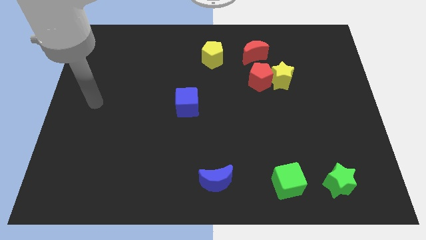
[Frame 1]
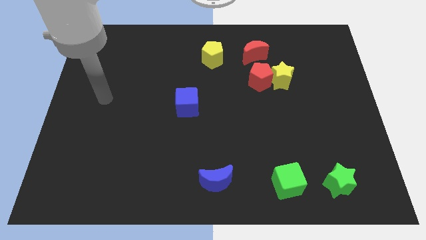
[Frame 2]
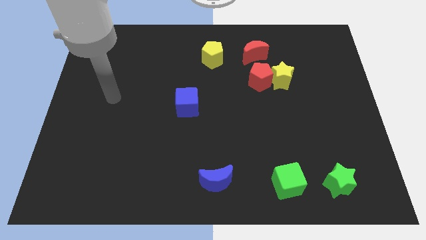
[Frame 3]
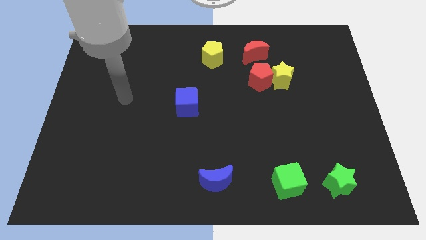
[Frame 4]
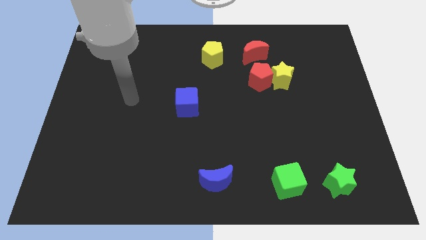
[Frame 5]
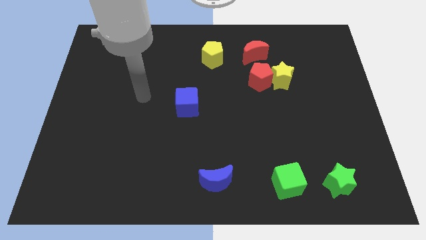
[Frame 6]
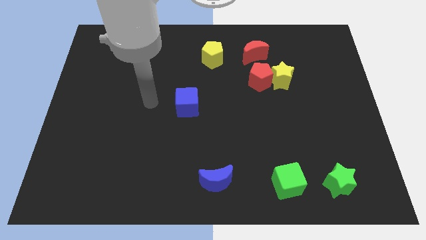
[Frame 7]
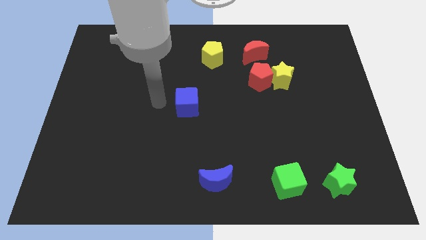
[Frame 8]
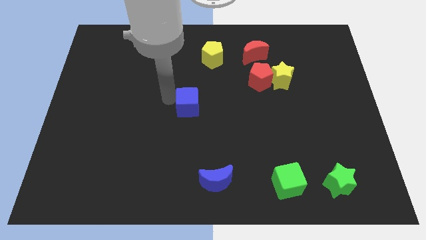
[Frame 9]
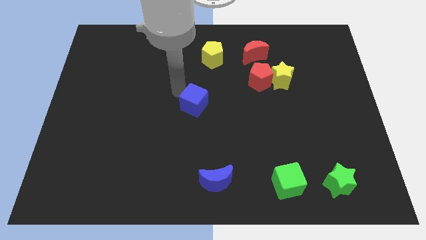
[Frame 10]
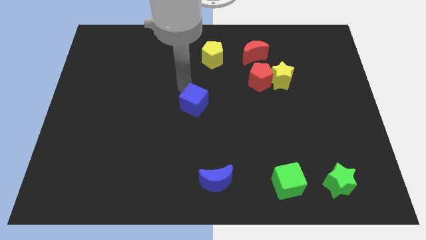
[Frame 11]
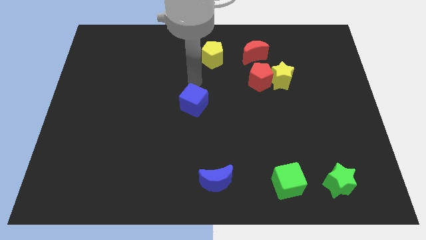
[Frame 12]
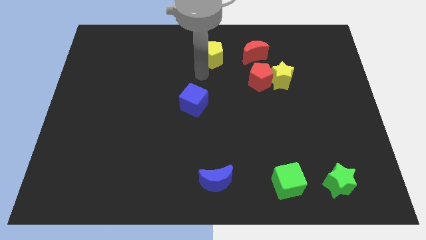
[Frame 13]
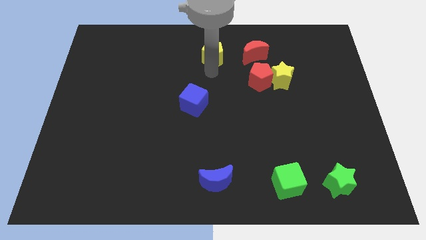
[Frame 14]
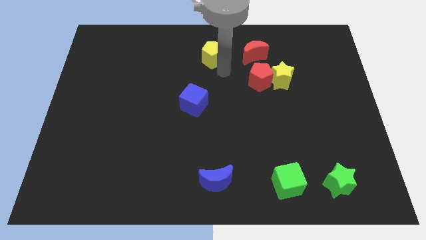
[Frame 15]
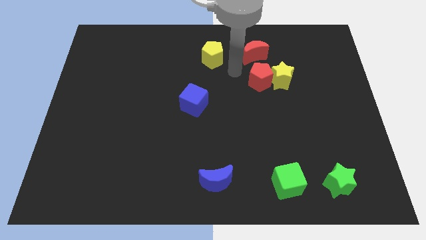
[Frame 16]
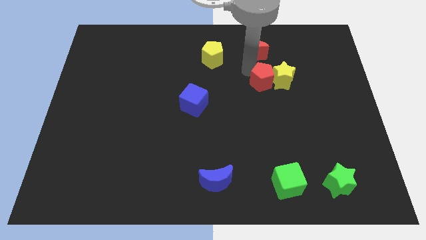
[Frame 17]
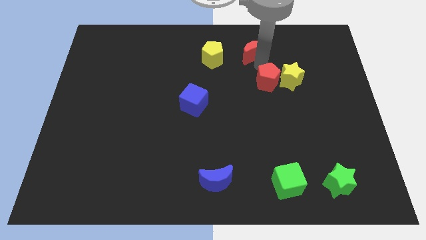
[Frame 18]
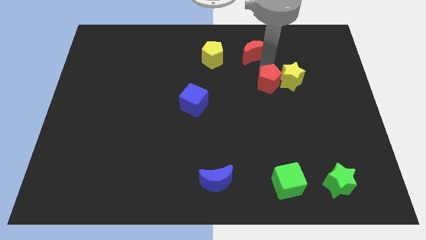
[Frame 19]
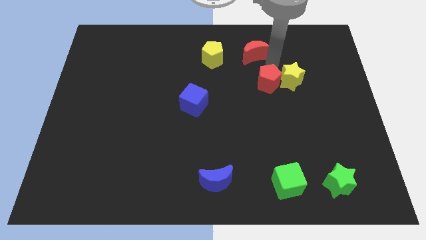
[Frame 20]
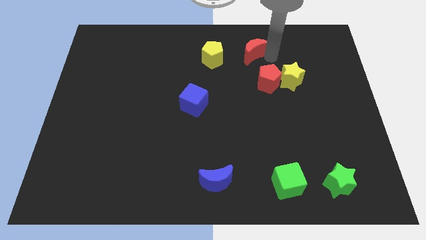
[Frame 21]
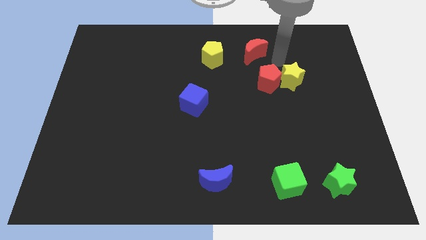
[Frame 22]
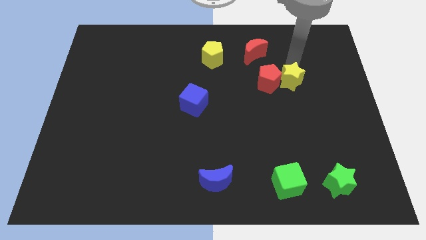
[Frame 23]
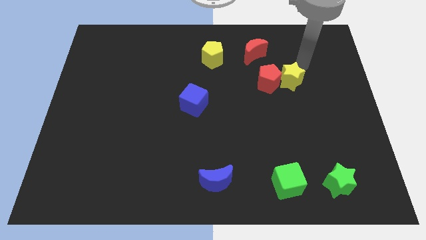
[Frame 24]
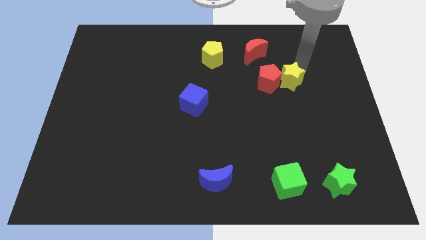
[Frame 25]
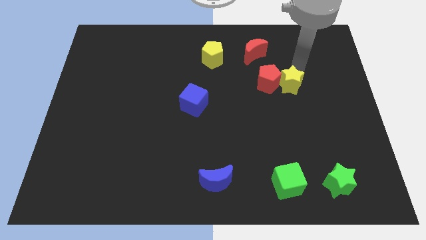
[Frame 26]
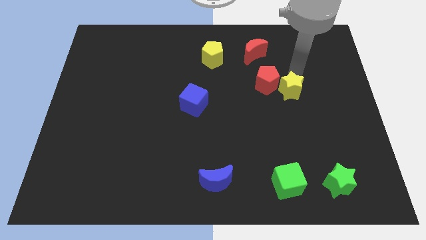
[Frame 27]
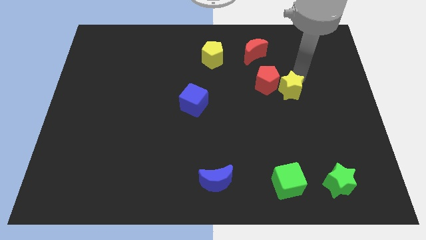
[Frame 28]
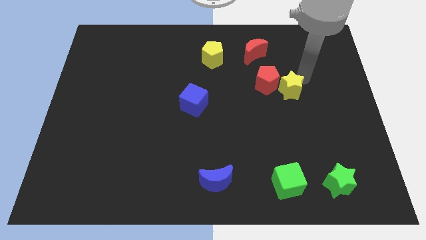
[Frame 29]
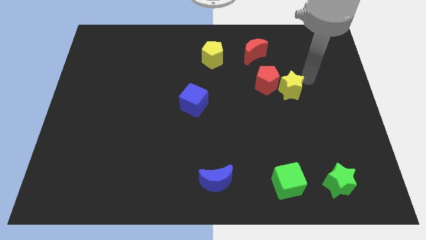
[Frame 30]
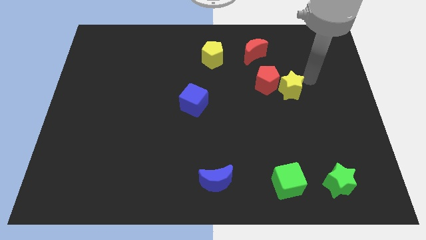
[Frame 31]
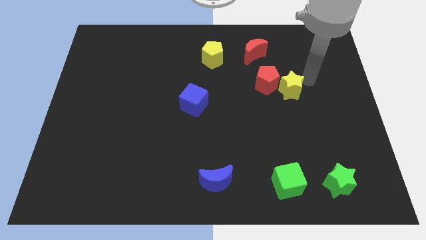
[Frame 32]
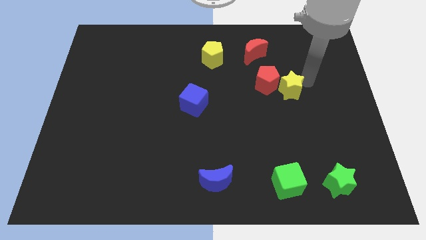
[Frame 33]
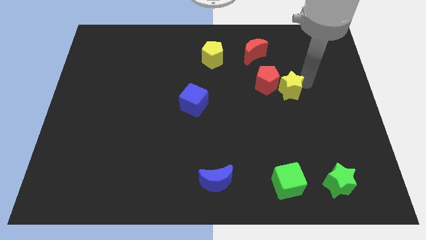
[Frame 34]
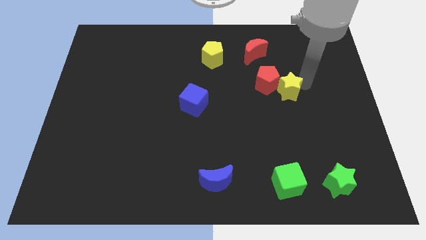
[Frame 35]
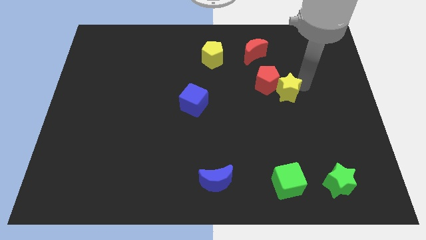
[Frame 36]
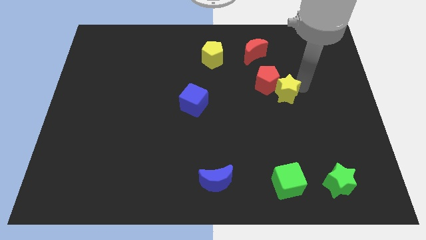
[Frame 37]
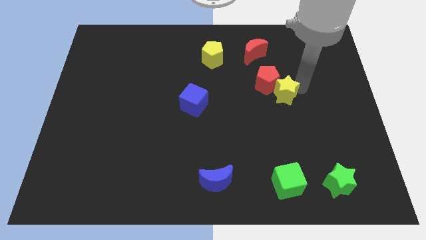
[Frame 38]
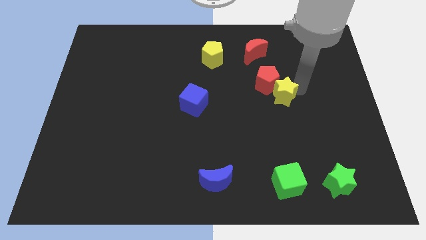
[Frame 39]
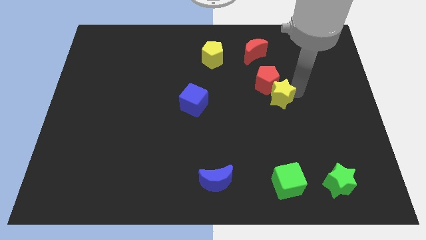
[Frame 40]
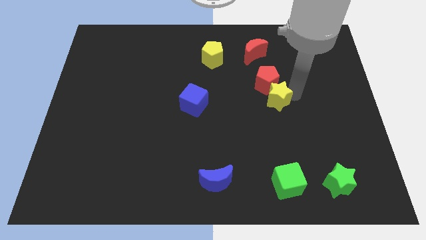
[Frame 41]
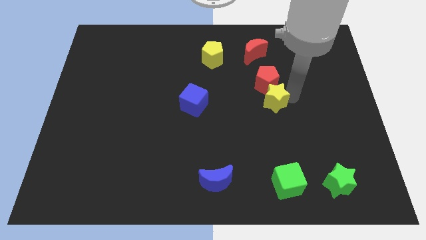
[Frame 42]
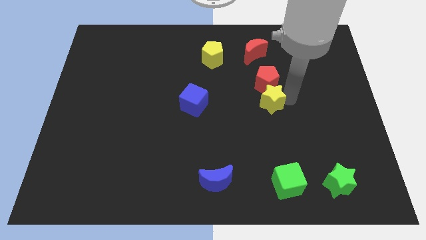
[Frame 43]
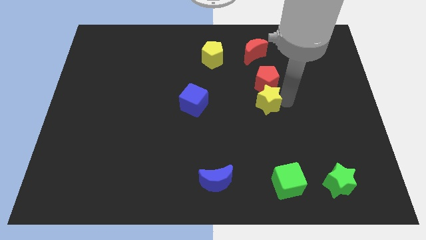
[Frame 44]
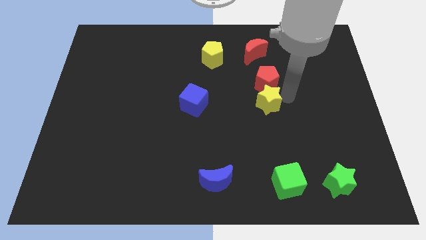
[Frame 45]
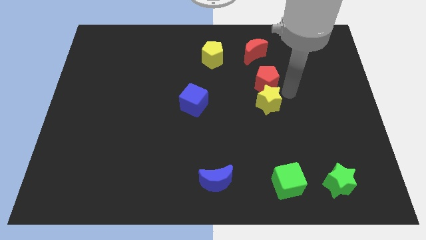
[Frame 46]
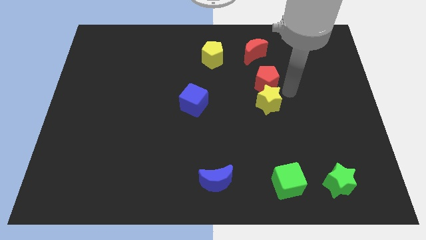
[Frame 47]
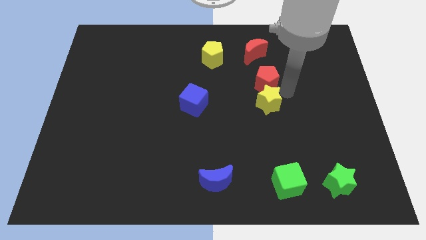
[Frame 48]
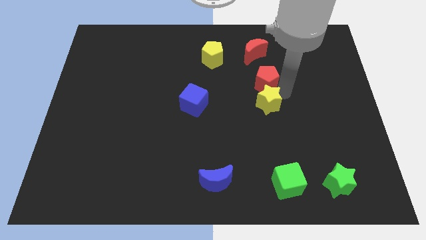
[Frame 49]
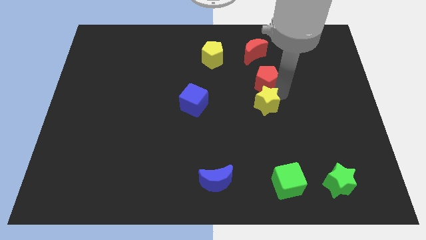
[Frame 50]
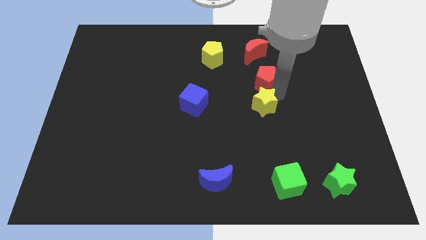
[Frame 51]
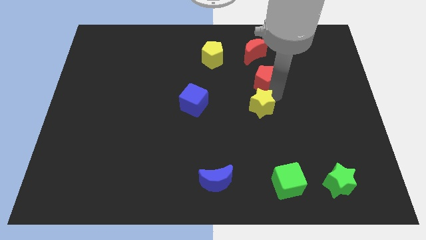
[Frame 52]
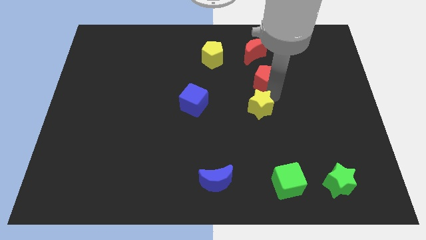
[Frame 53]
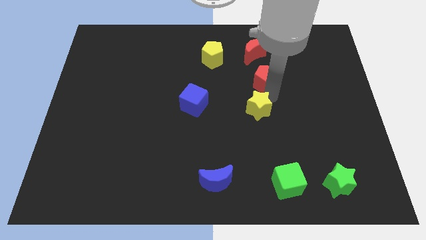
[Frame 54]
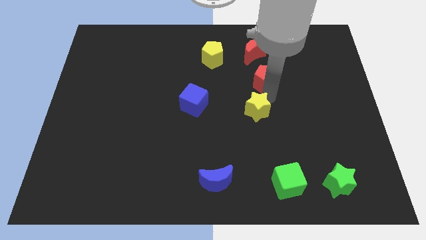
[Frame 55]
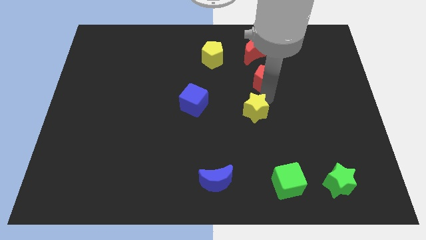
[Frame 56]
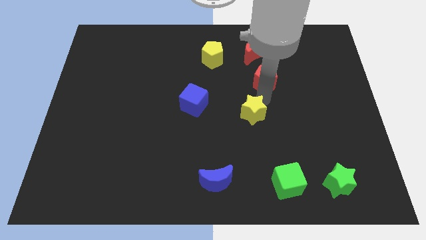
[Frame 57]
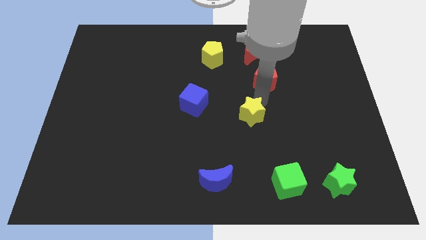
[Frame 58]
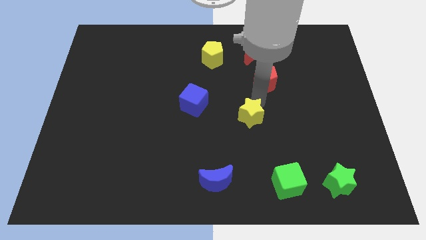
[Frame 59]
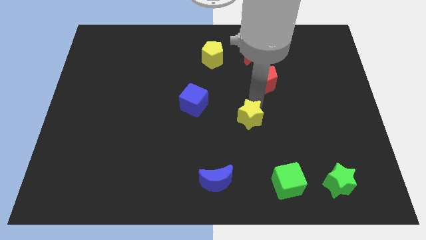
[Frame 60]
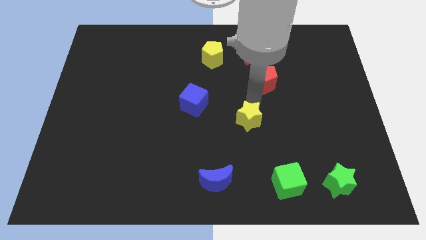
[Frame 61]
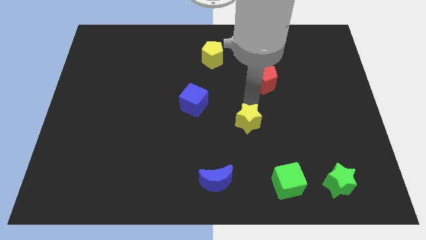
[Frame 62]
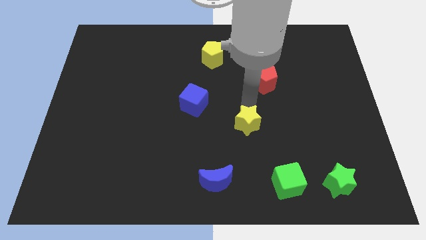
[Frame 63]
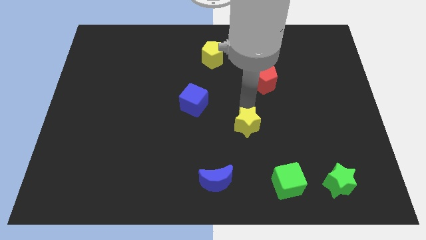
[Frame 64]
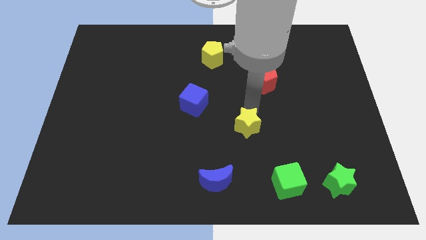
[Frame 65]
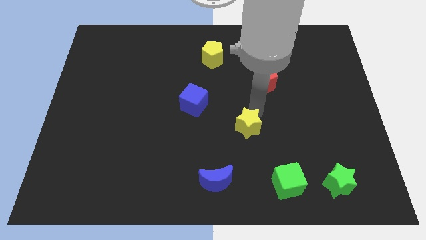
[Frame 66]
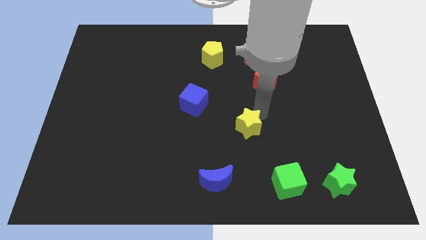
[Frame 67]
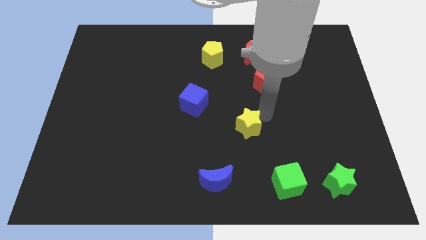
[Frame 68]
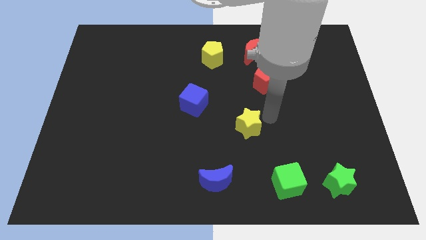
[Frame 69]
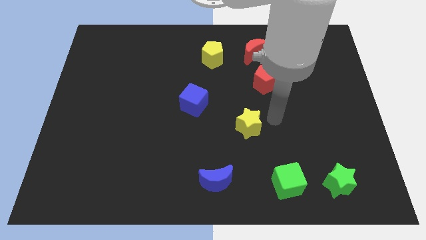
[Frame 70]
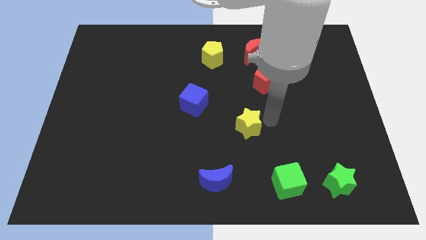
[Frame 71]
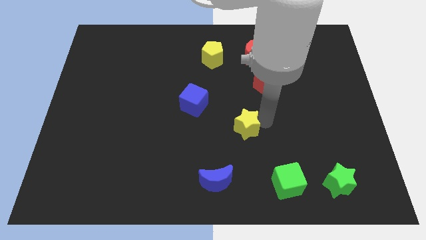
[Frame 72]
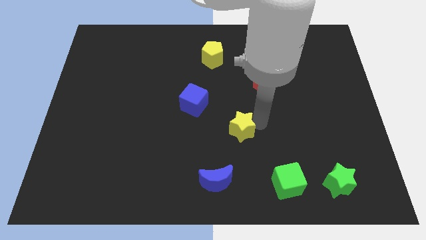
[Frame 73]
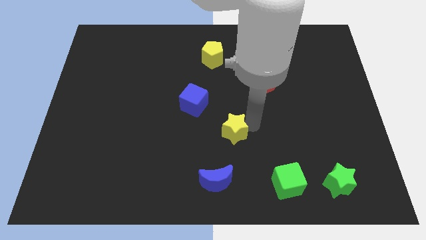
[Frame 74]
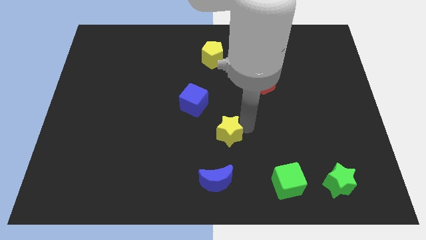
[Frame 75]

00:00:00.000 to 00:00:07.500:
move the yellow star diagonally down and left

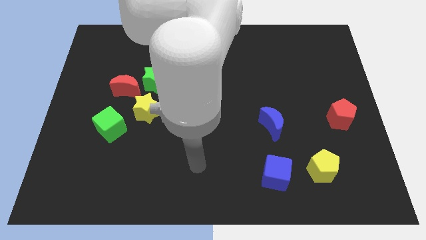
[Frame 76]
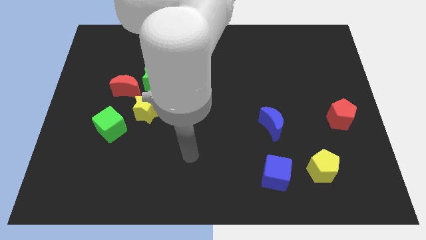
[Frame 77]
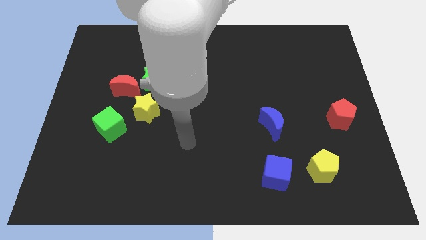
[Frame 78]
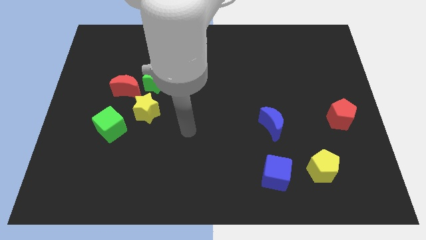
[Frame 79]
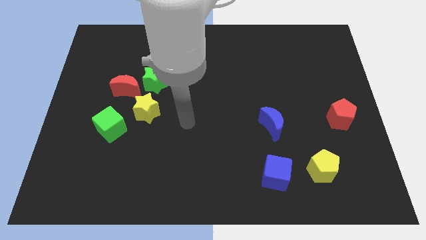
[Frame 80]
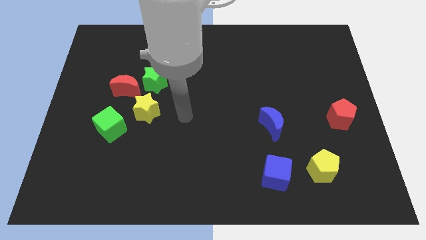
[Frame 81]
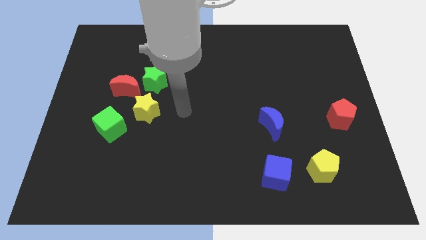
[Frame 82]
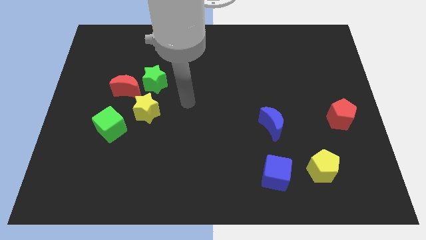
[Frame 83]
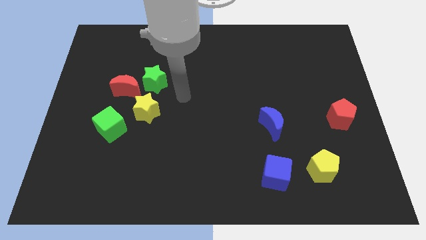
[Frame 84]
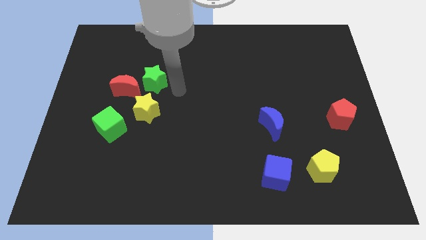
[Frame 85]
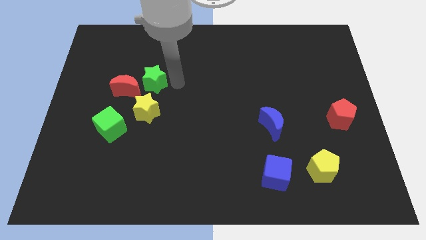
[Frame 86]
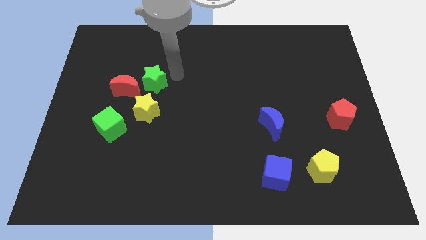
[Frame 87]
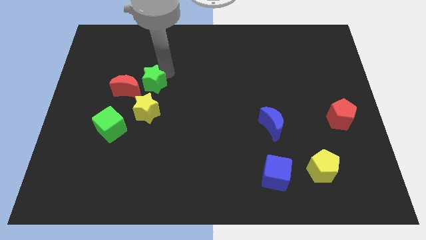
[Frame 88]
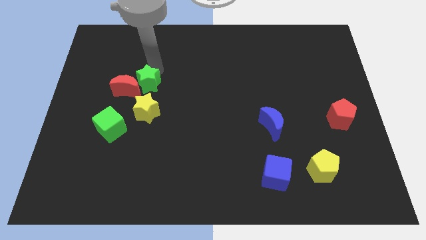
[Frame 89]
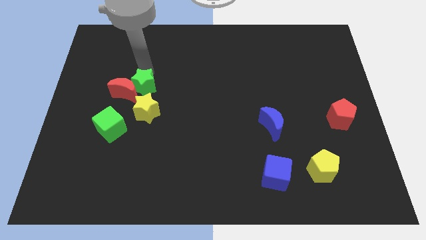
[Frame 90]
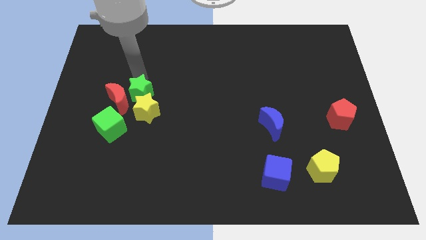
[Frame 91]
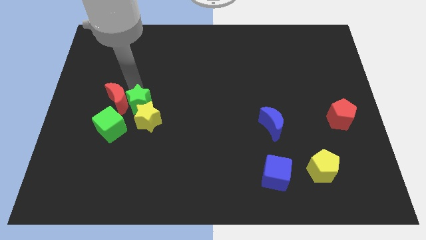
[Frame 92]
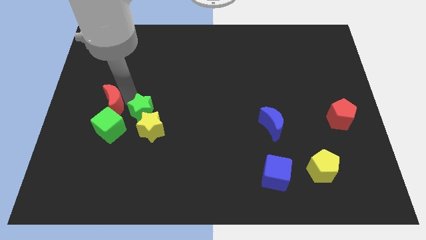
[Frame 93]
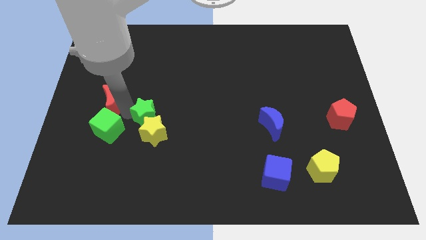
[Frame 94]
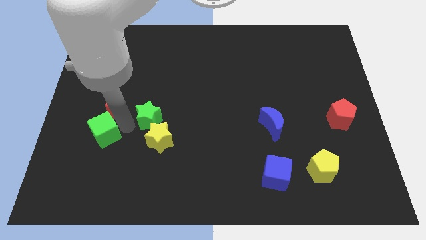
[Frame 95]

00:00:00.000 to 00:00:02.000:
move the yellow star down and right diagonally a little bit
